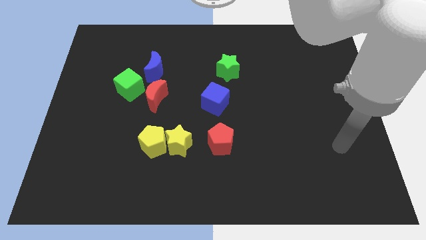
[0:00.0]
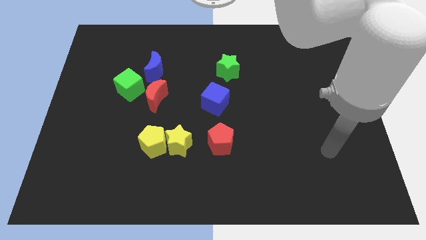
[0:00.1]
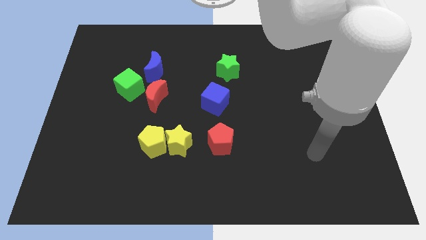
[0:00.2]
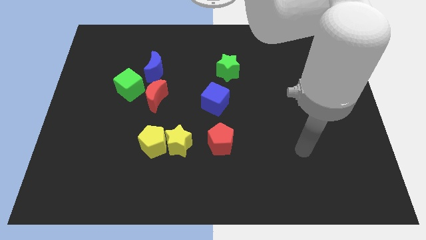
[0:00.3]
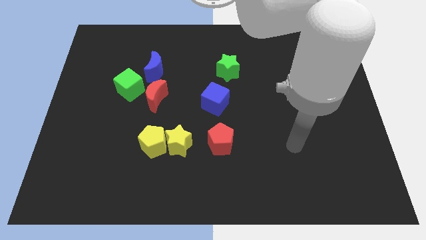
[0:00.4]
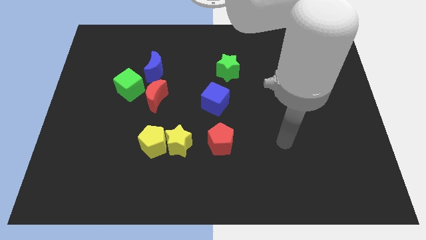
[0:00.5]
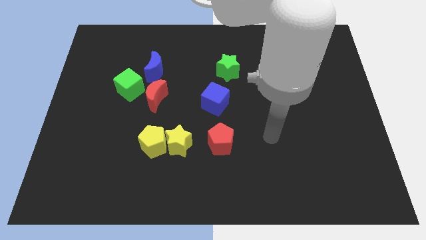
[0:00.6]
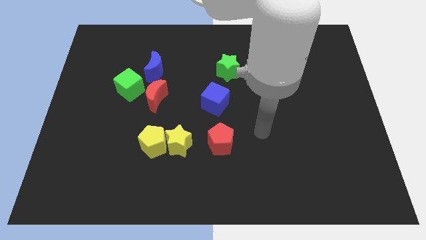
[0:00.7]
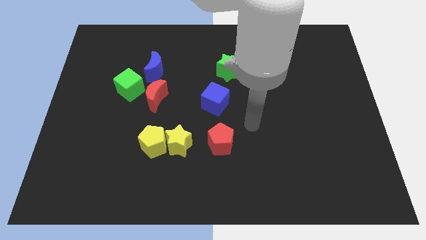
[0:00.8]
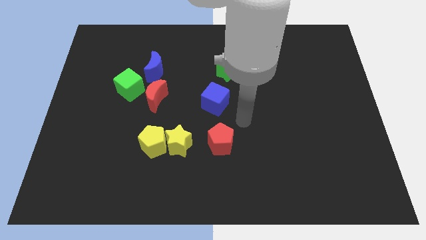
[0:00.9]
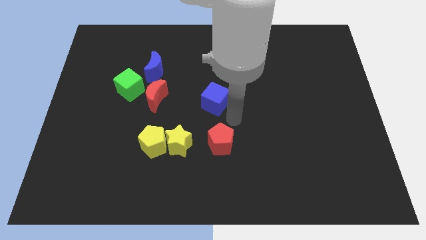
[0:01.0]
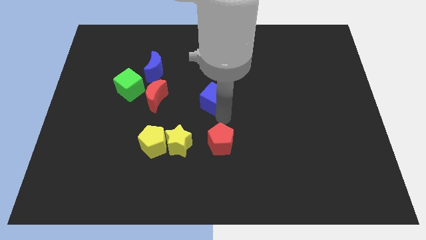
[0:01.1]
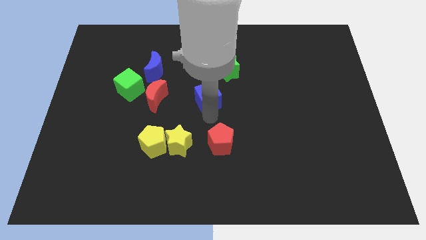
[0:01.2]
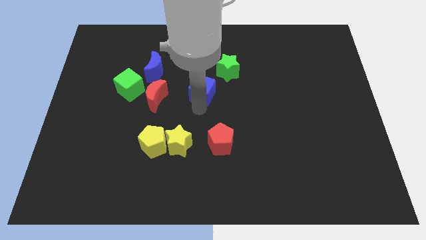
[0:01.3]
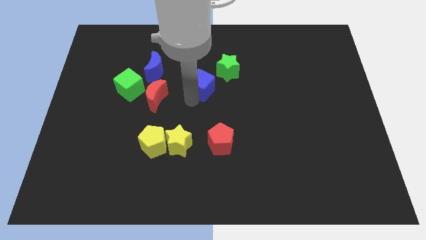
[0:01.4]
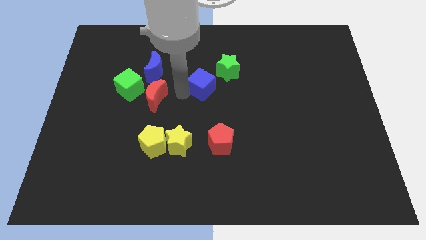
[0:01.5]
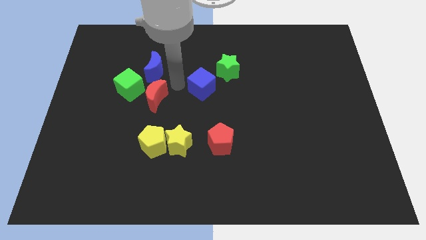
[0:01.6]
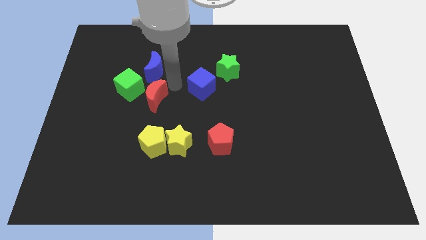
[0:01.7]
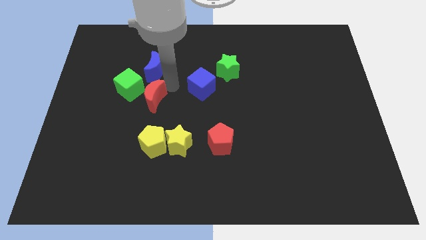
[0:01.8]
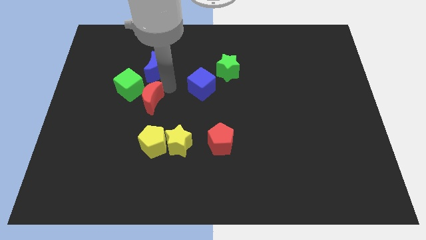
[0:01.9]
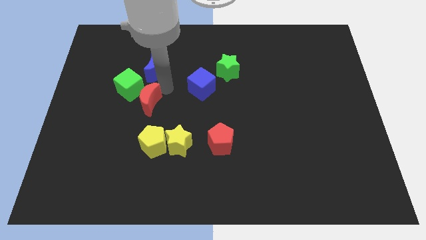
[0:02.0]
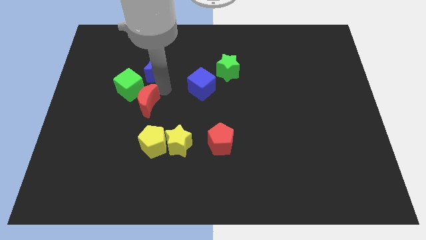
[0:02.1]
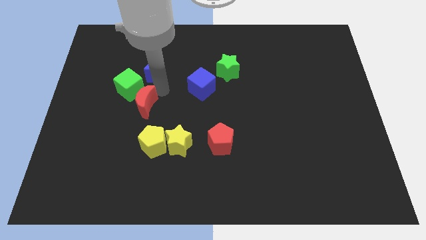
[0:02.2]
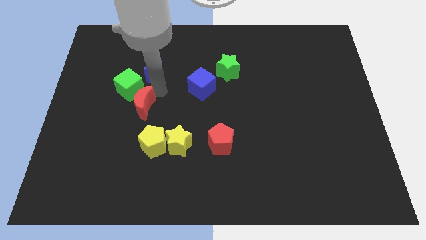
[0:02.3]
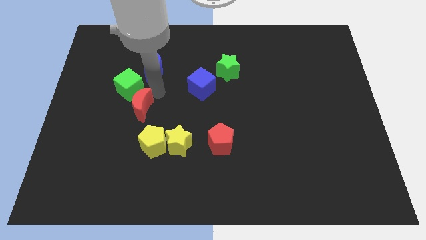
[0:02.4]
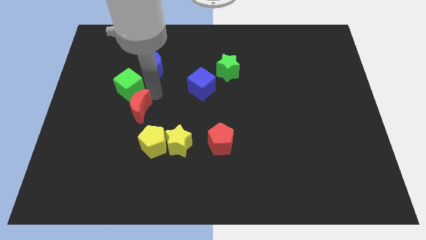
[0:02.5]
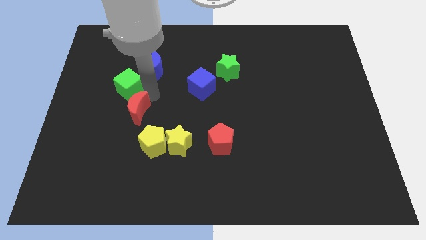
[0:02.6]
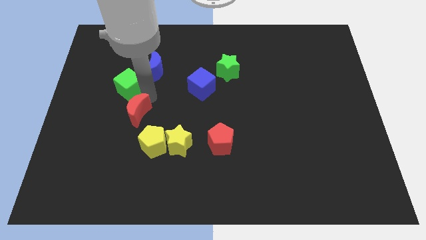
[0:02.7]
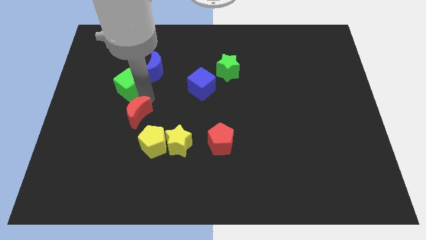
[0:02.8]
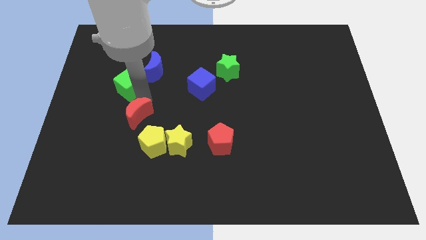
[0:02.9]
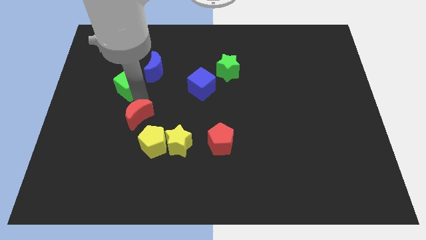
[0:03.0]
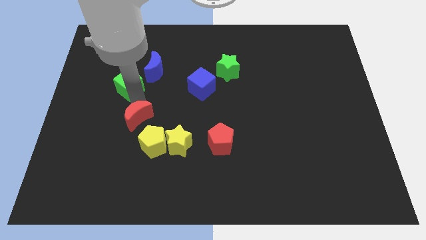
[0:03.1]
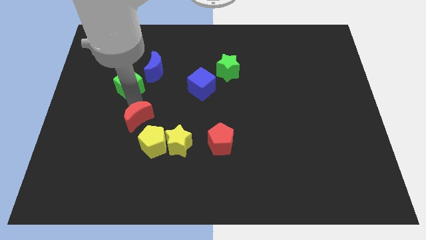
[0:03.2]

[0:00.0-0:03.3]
slide the red moon a little bit downwards and to the left

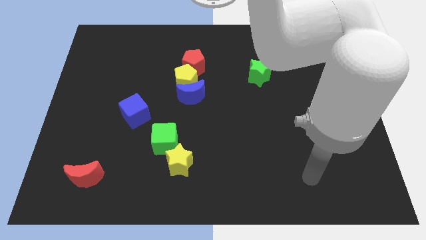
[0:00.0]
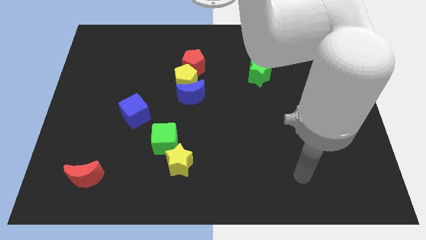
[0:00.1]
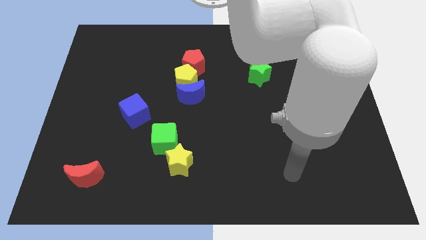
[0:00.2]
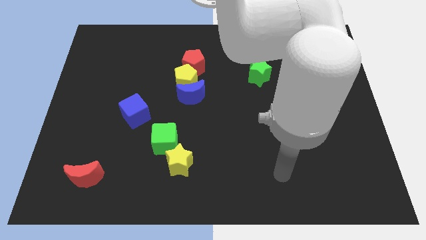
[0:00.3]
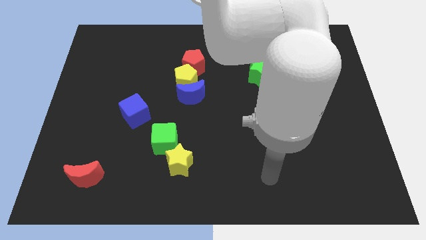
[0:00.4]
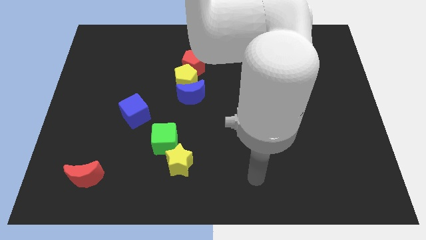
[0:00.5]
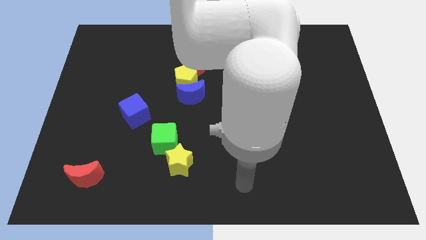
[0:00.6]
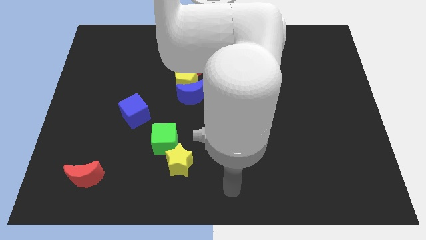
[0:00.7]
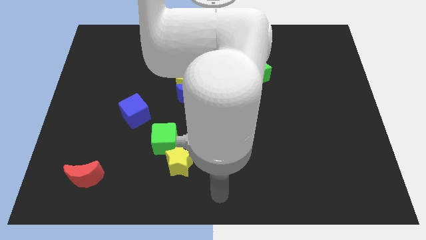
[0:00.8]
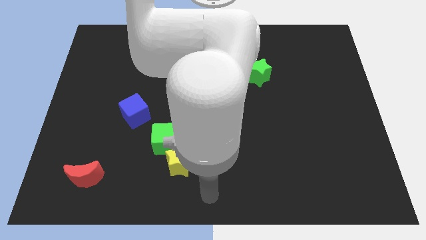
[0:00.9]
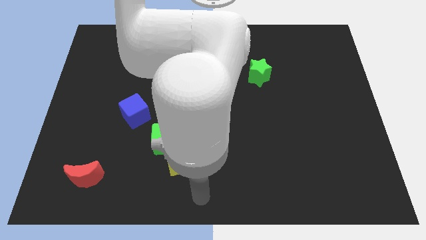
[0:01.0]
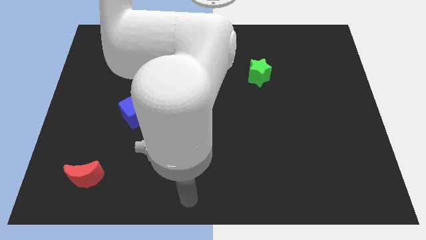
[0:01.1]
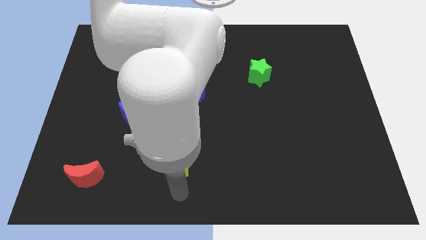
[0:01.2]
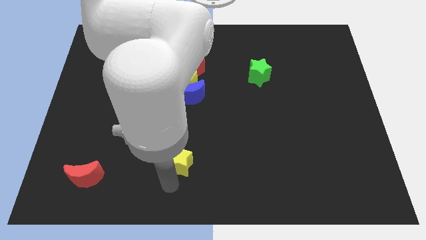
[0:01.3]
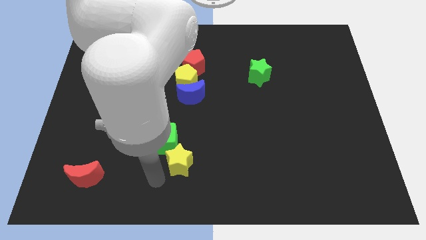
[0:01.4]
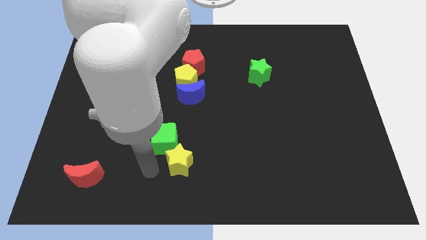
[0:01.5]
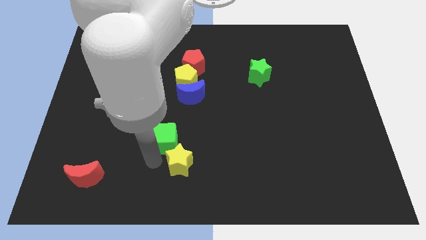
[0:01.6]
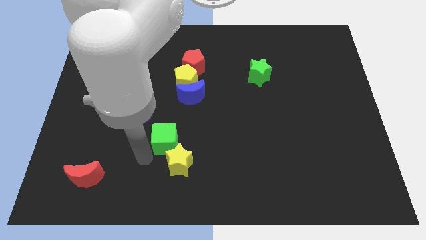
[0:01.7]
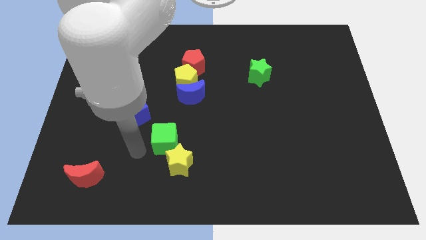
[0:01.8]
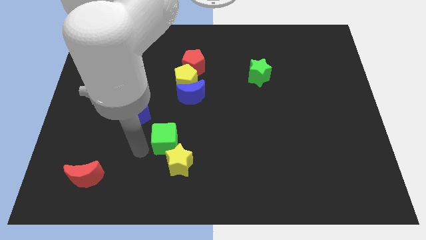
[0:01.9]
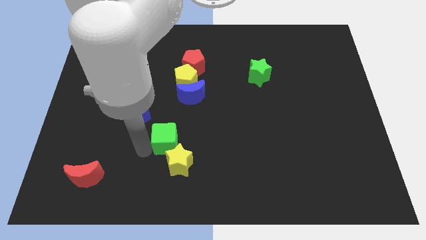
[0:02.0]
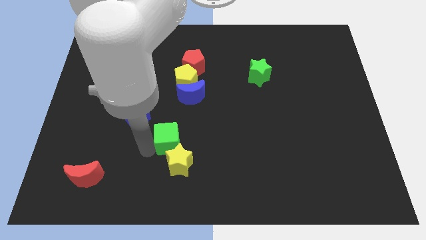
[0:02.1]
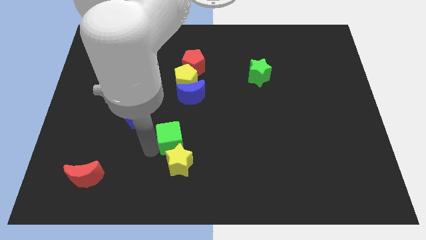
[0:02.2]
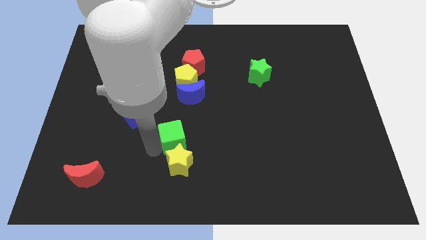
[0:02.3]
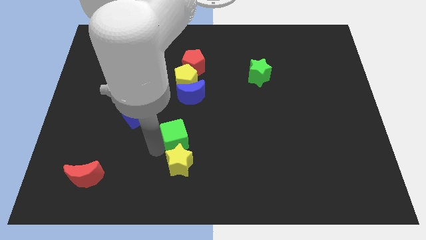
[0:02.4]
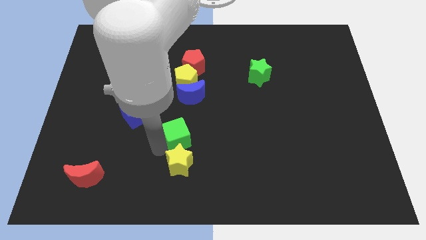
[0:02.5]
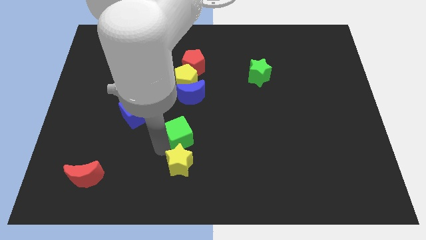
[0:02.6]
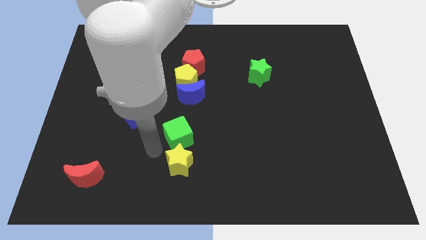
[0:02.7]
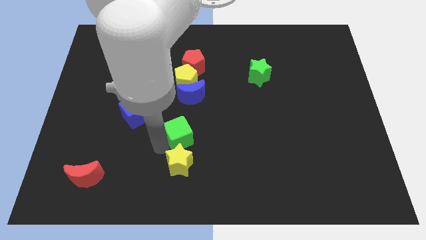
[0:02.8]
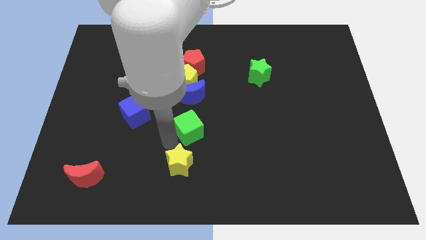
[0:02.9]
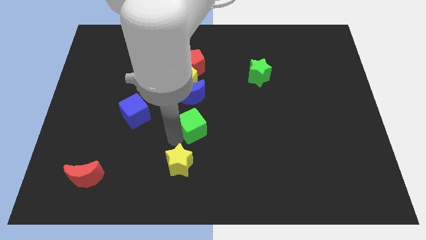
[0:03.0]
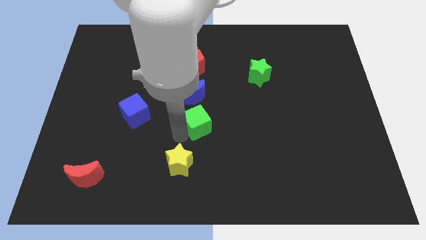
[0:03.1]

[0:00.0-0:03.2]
move the green cube upwards and then right slightly

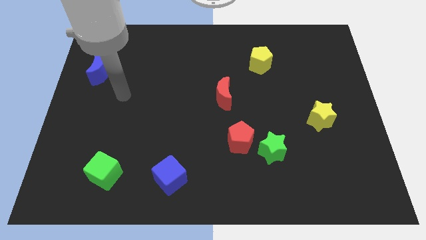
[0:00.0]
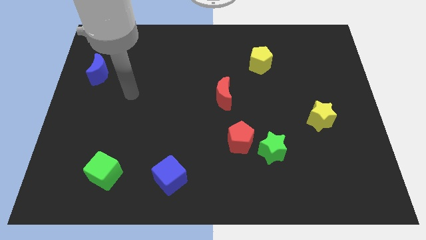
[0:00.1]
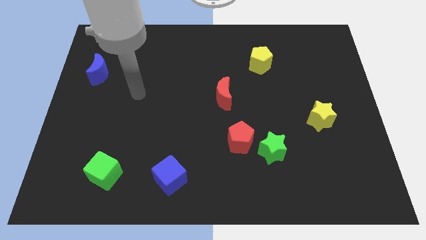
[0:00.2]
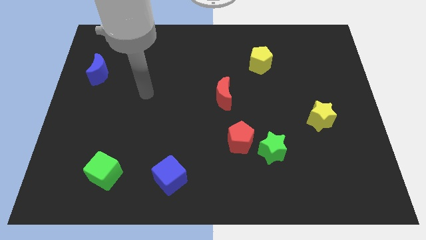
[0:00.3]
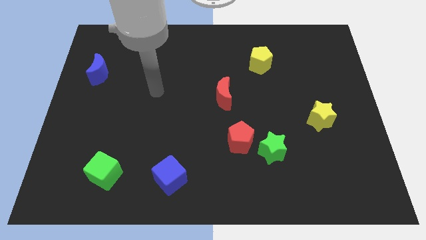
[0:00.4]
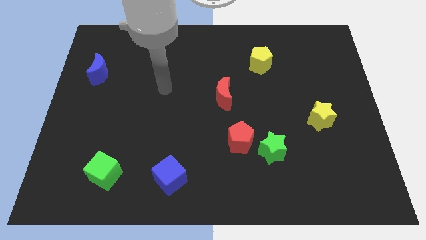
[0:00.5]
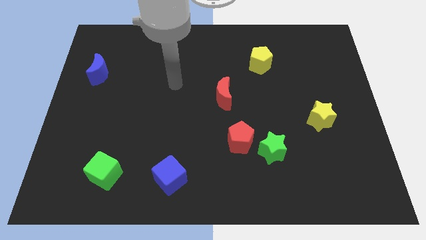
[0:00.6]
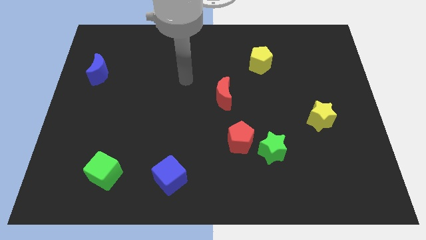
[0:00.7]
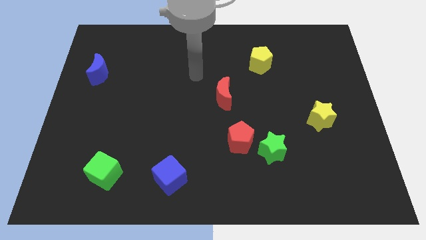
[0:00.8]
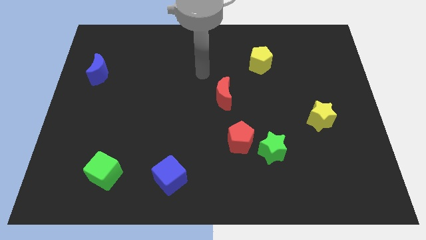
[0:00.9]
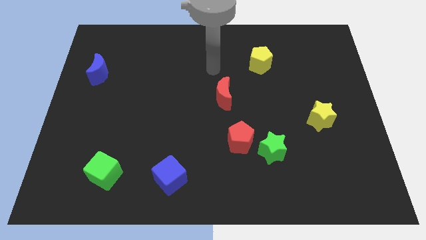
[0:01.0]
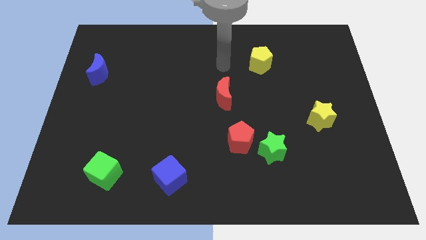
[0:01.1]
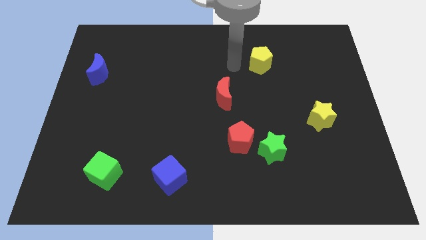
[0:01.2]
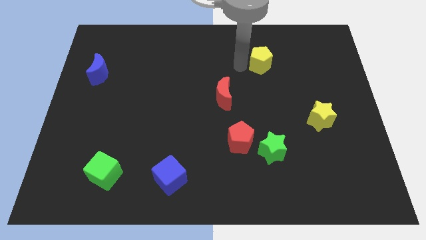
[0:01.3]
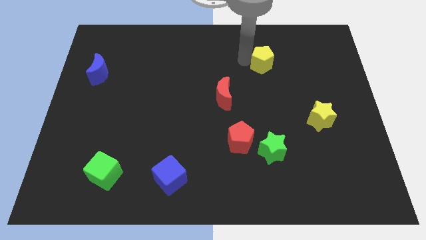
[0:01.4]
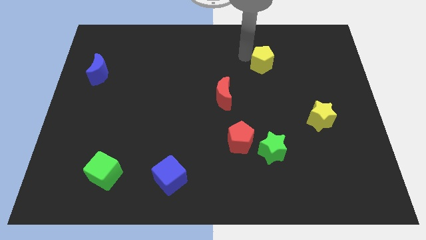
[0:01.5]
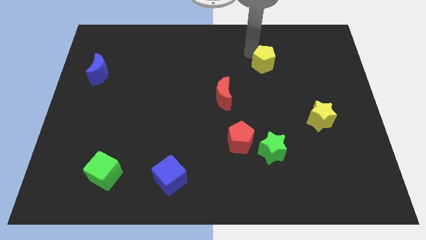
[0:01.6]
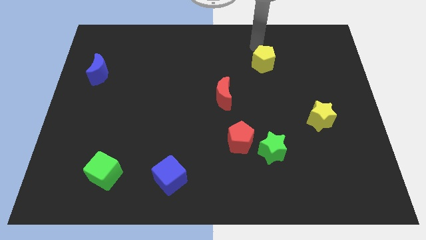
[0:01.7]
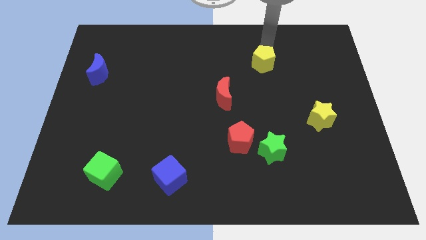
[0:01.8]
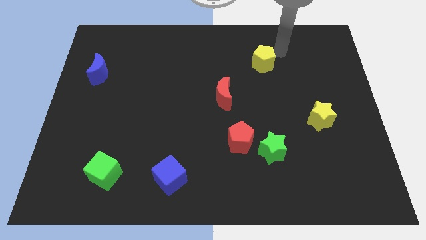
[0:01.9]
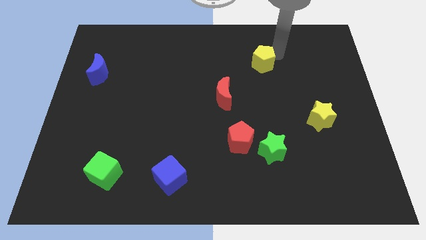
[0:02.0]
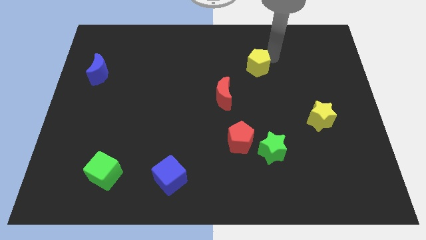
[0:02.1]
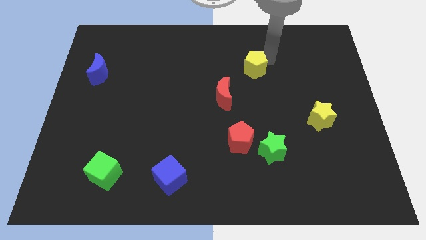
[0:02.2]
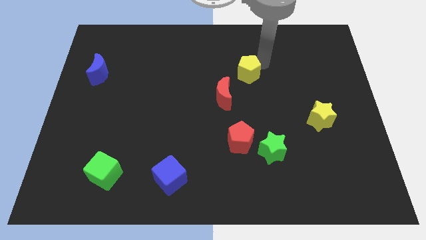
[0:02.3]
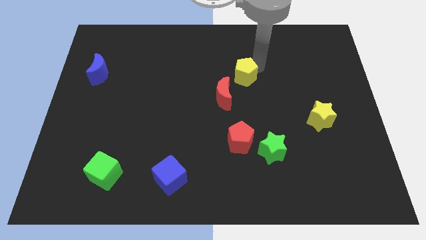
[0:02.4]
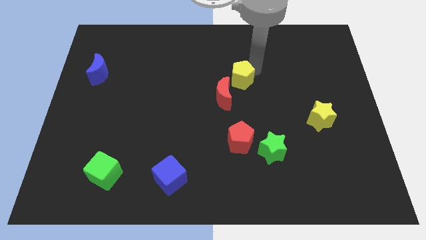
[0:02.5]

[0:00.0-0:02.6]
push the yellow pentagon slightly down and to the left diagonally
